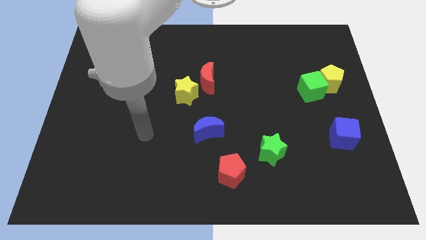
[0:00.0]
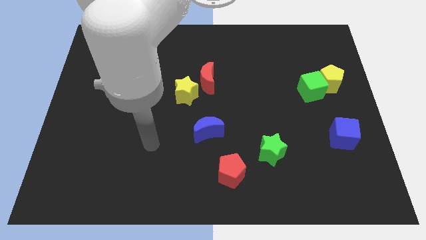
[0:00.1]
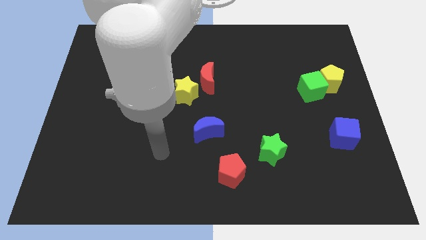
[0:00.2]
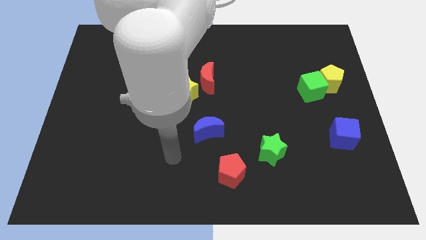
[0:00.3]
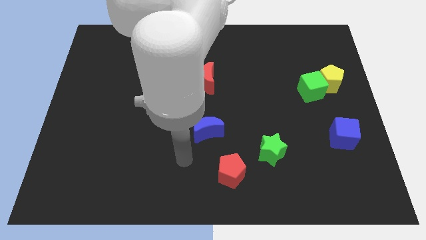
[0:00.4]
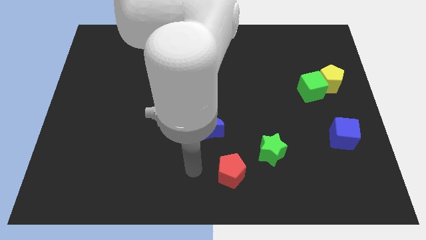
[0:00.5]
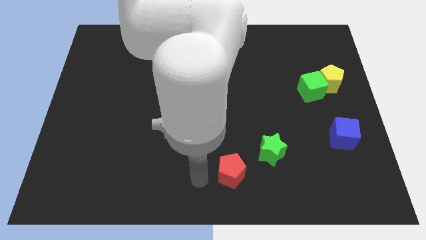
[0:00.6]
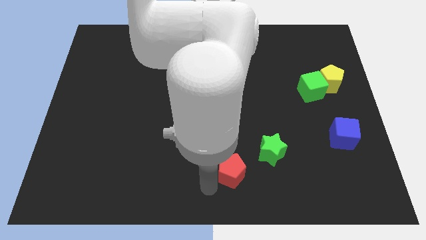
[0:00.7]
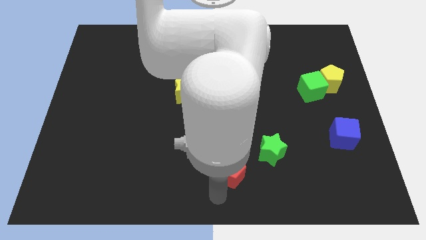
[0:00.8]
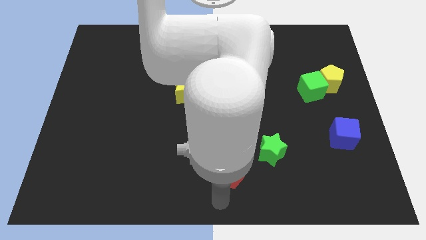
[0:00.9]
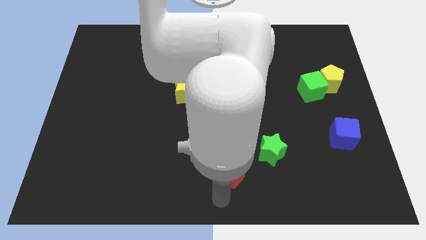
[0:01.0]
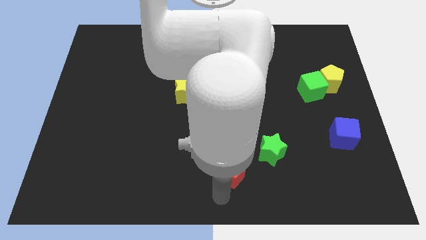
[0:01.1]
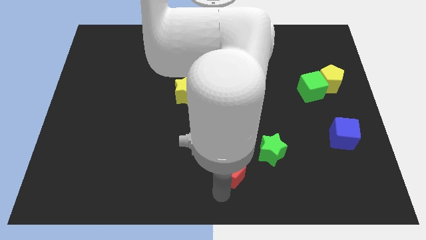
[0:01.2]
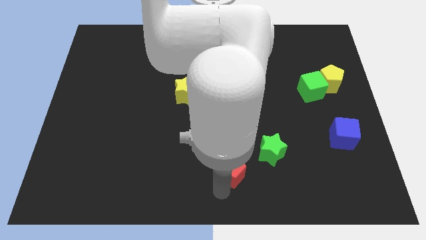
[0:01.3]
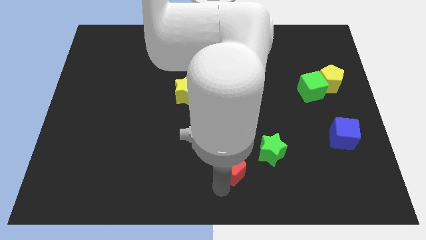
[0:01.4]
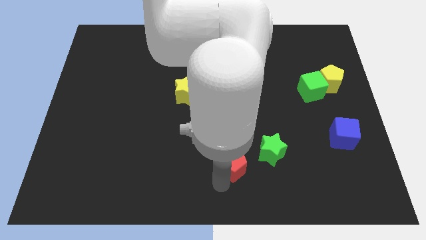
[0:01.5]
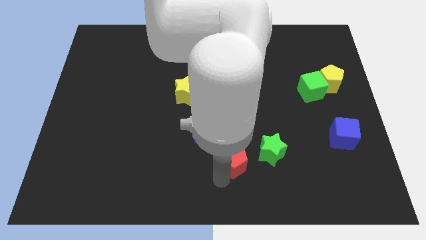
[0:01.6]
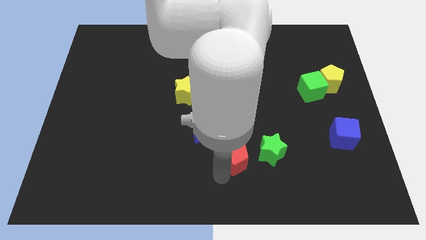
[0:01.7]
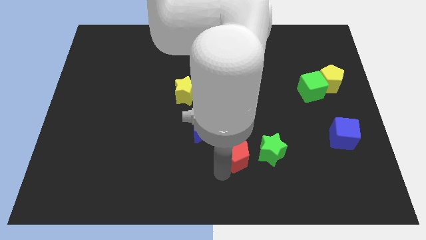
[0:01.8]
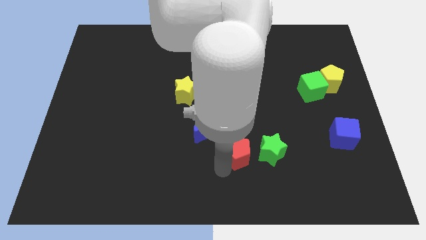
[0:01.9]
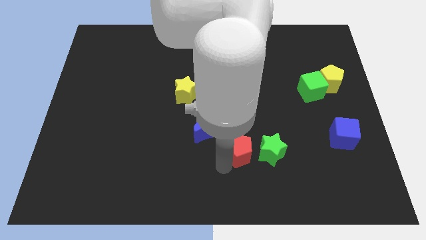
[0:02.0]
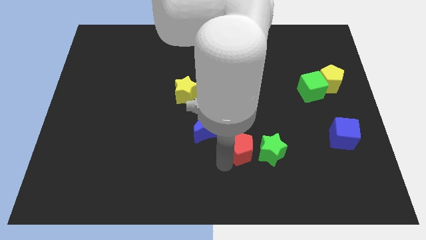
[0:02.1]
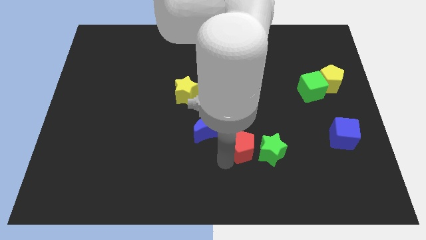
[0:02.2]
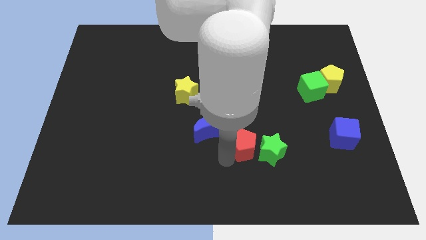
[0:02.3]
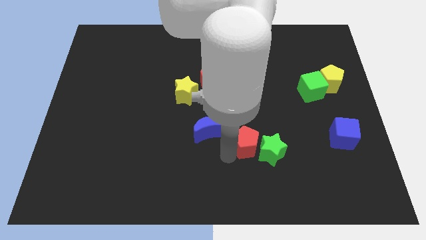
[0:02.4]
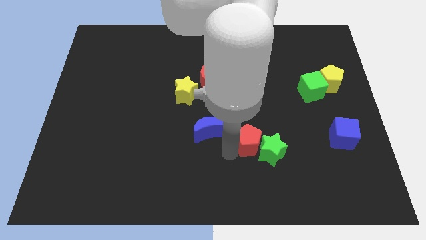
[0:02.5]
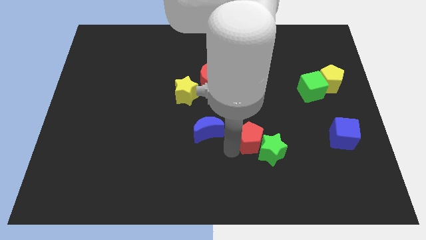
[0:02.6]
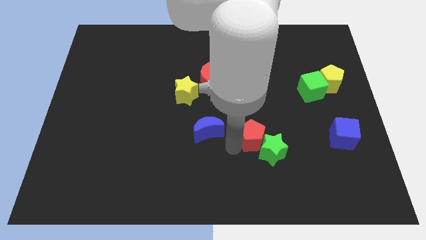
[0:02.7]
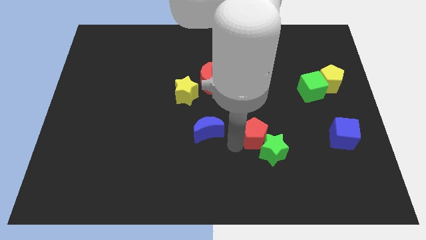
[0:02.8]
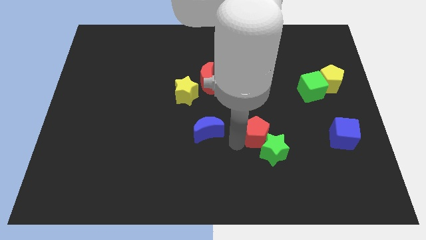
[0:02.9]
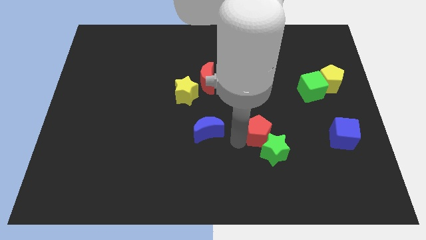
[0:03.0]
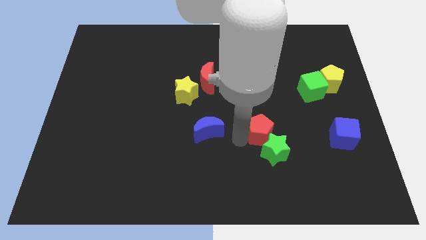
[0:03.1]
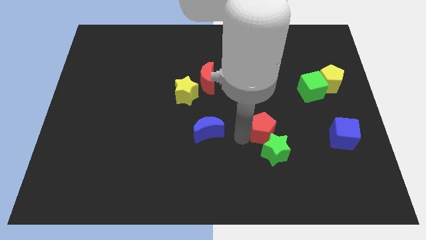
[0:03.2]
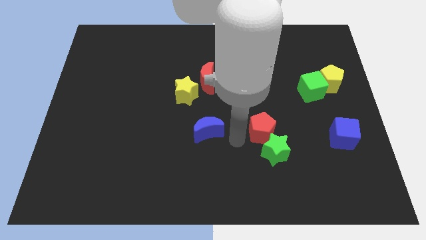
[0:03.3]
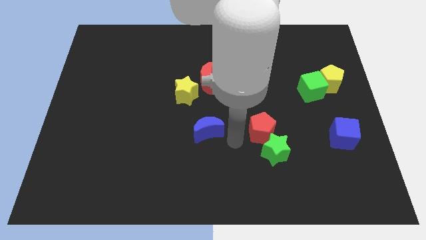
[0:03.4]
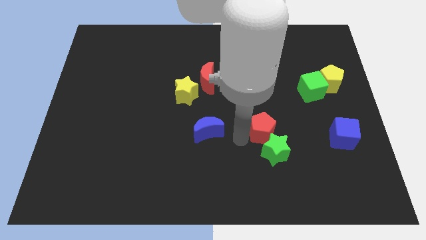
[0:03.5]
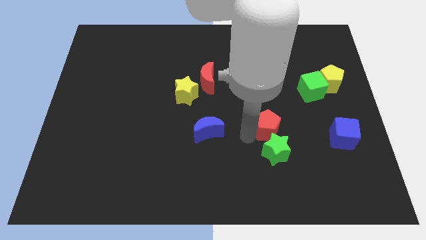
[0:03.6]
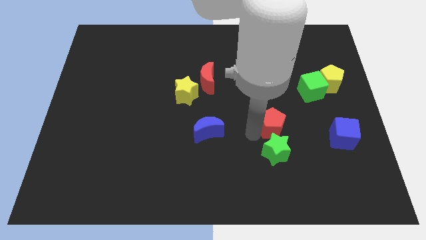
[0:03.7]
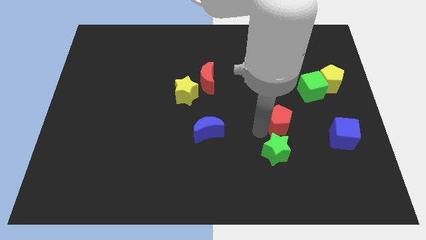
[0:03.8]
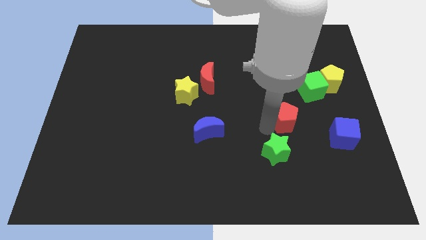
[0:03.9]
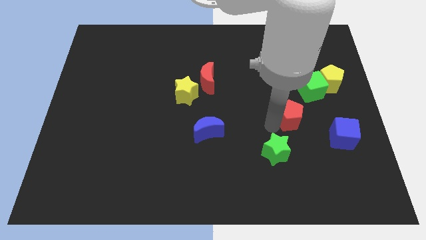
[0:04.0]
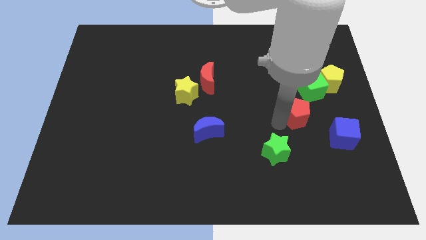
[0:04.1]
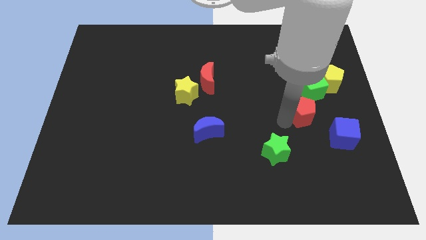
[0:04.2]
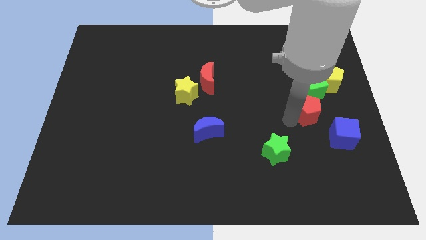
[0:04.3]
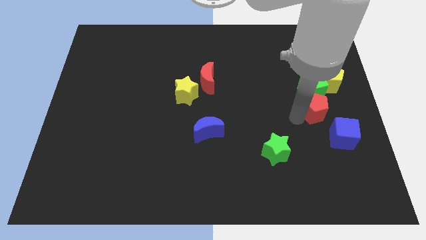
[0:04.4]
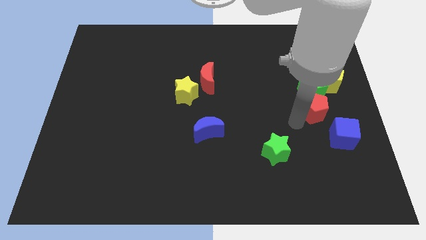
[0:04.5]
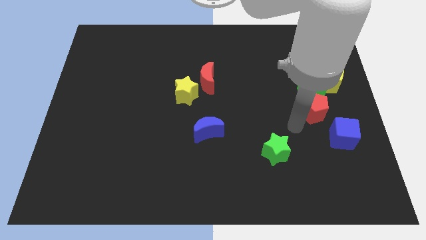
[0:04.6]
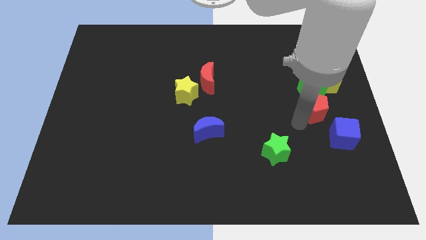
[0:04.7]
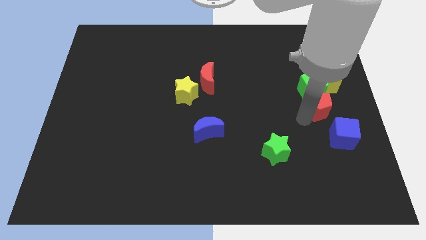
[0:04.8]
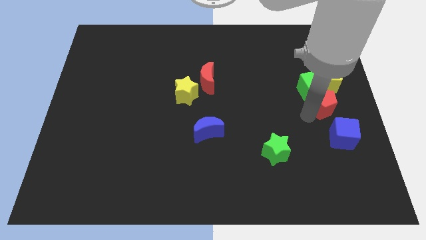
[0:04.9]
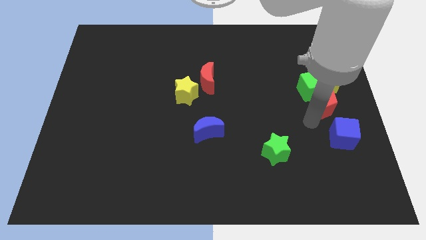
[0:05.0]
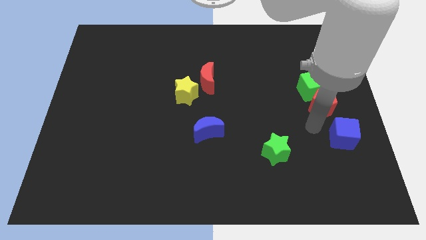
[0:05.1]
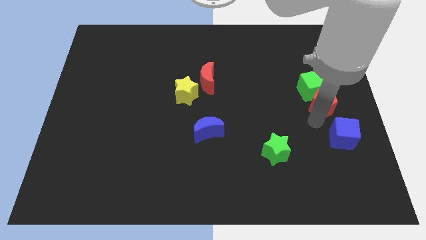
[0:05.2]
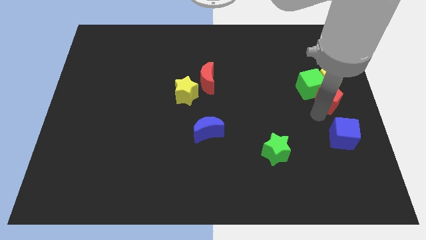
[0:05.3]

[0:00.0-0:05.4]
put the red pentagon to the yellow pentagon

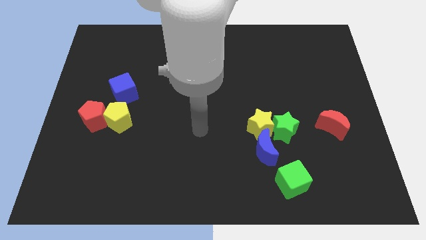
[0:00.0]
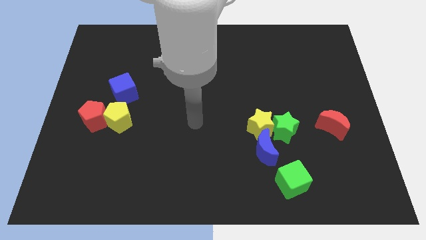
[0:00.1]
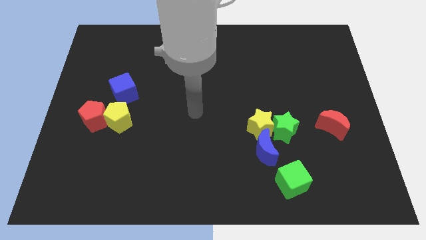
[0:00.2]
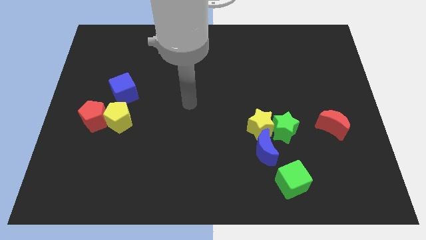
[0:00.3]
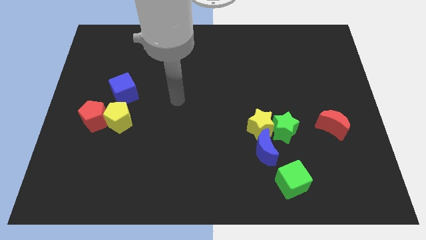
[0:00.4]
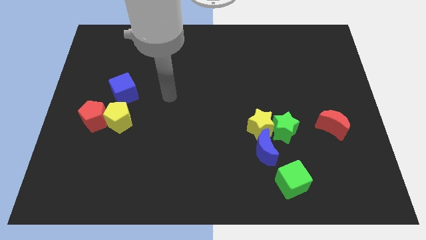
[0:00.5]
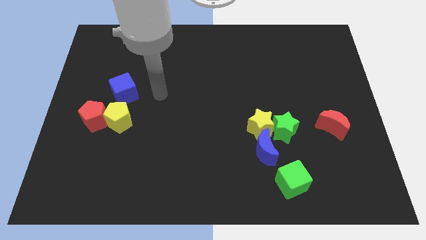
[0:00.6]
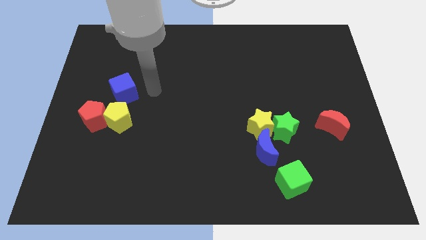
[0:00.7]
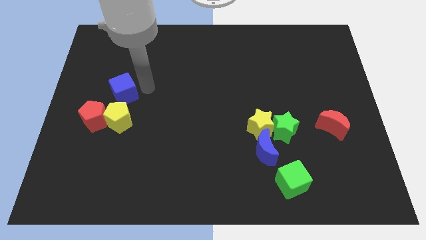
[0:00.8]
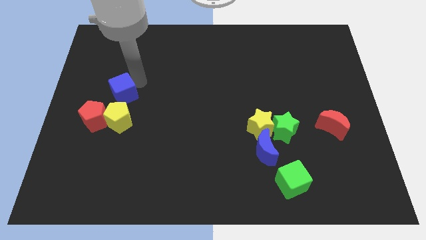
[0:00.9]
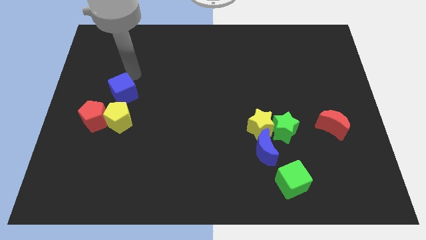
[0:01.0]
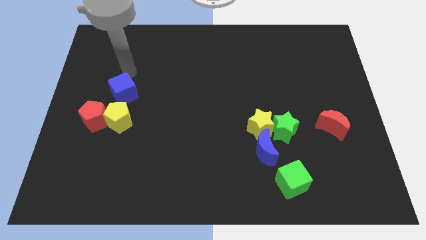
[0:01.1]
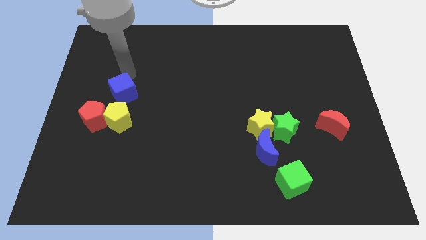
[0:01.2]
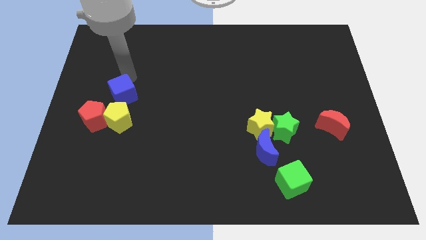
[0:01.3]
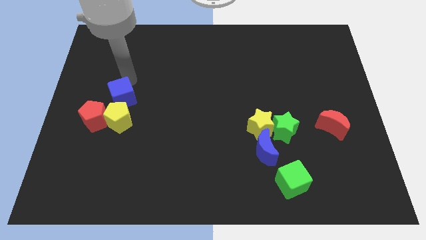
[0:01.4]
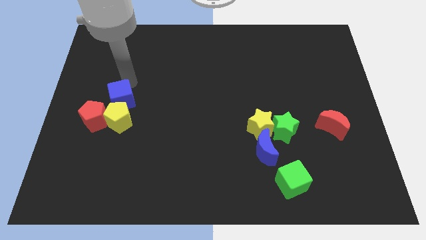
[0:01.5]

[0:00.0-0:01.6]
put the blue cube towards the yellow pentagon
